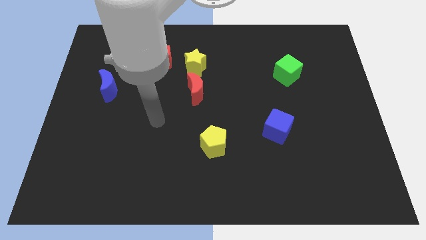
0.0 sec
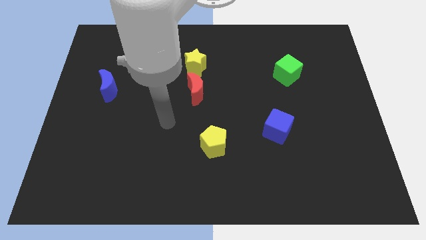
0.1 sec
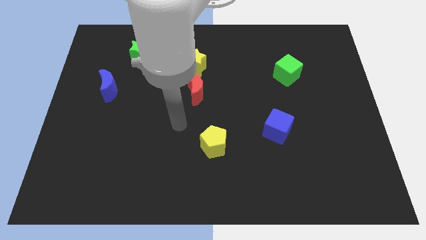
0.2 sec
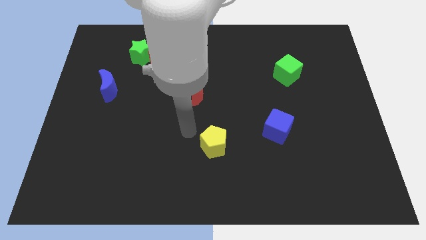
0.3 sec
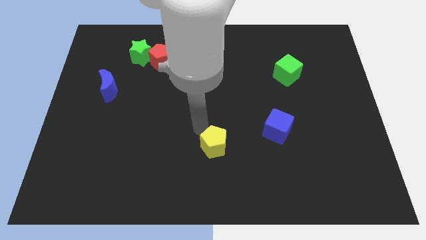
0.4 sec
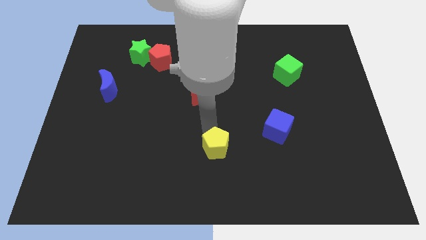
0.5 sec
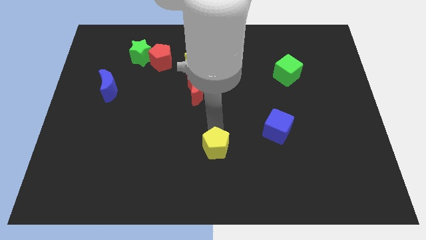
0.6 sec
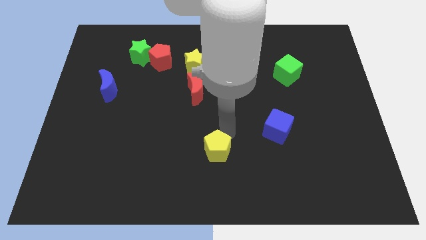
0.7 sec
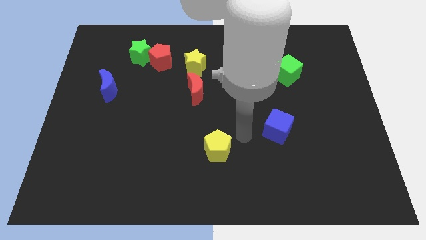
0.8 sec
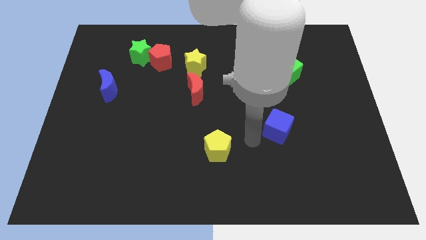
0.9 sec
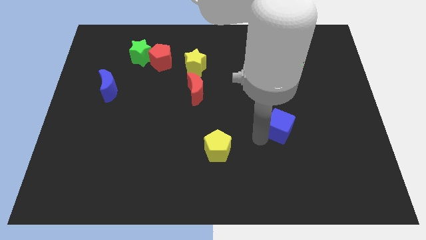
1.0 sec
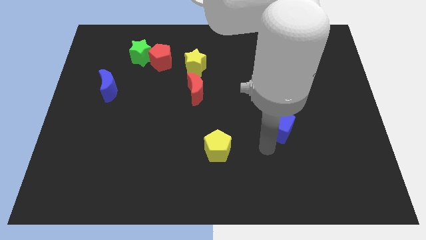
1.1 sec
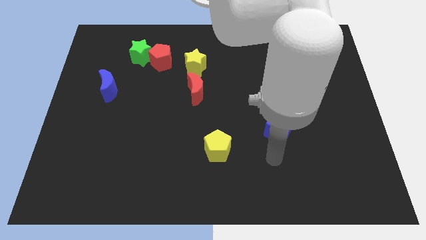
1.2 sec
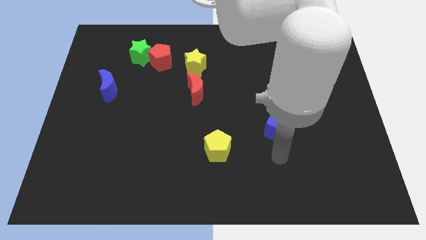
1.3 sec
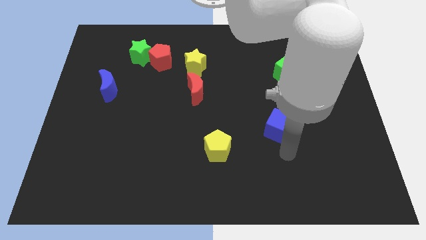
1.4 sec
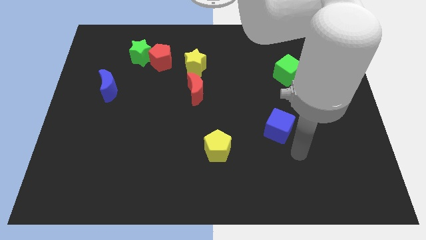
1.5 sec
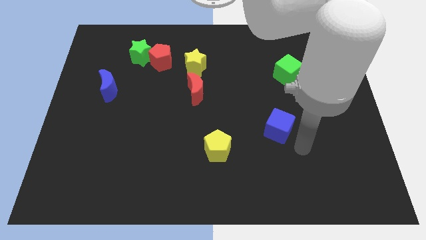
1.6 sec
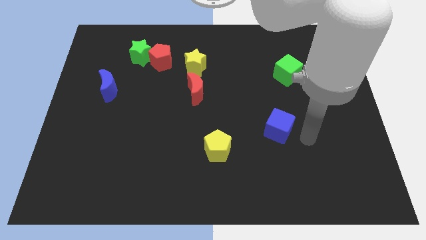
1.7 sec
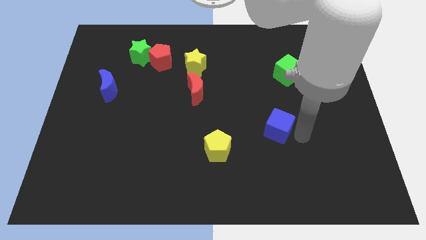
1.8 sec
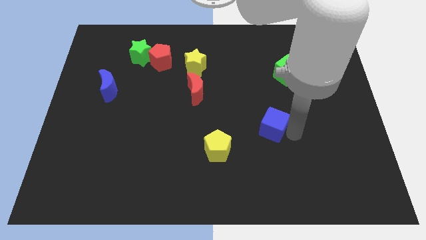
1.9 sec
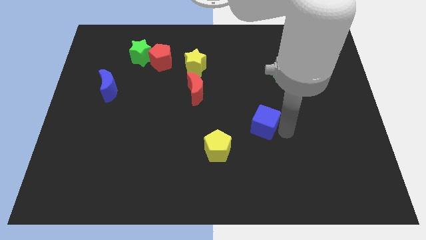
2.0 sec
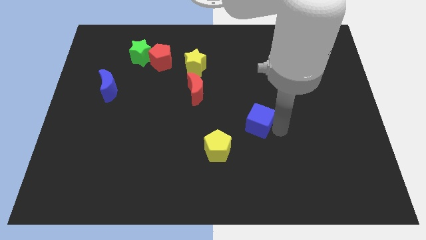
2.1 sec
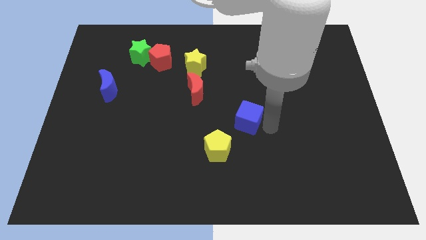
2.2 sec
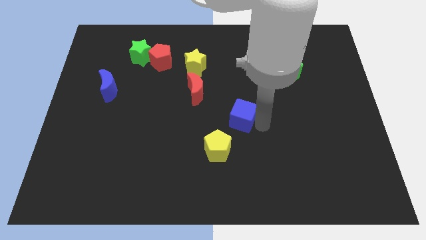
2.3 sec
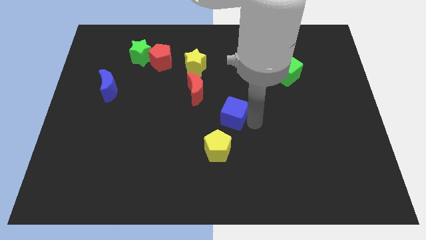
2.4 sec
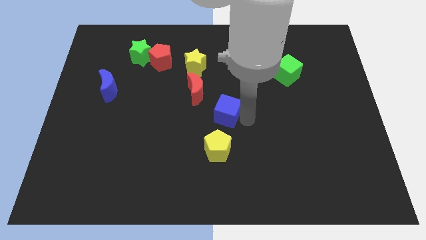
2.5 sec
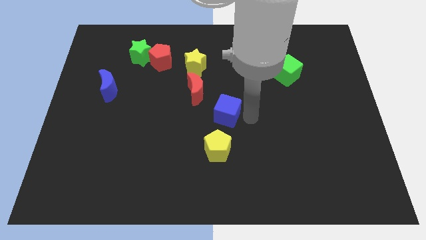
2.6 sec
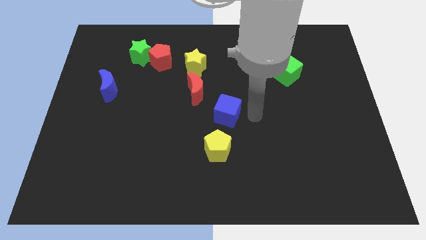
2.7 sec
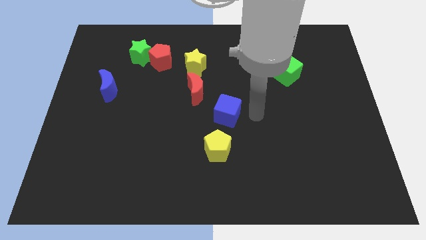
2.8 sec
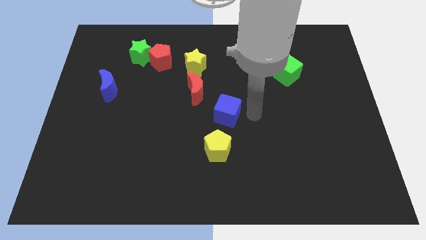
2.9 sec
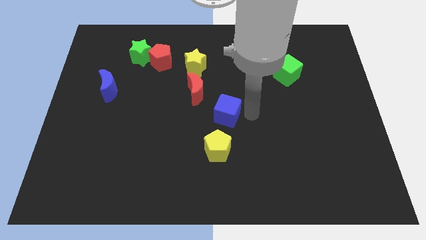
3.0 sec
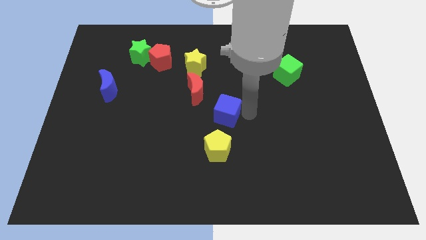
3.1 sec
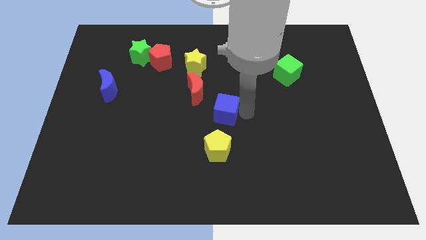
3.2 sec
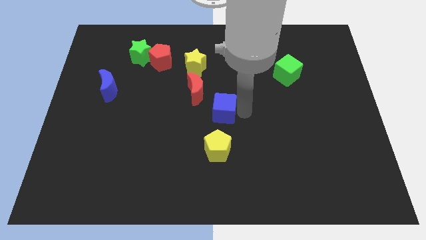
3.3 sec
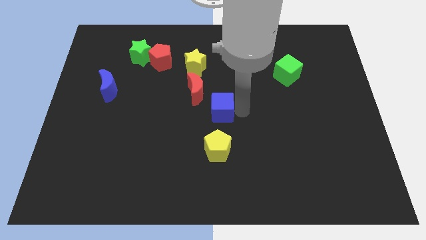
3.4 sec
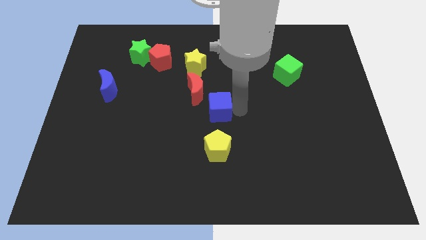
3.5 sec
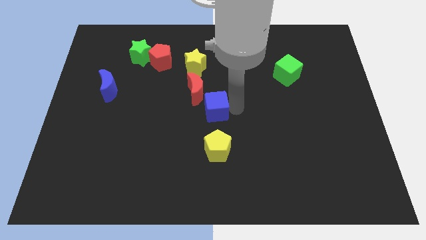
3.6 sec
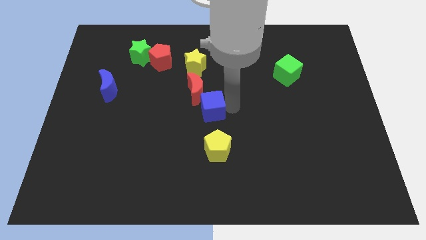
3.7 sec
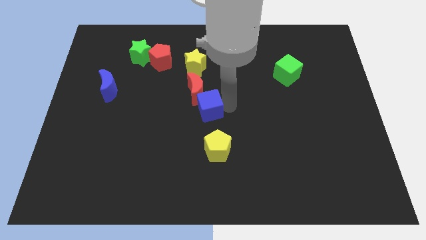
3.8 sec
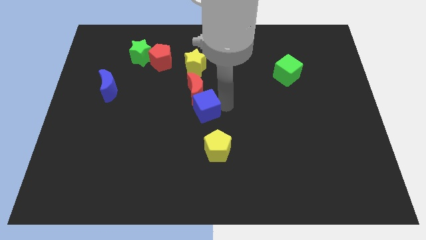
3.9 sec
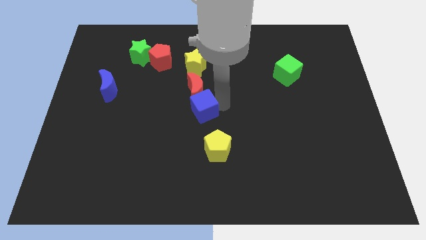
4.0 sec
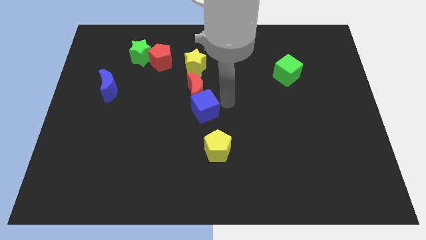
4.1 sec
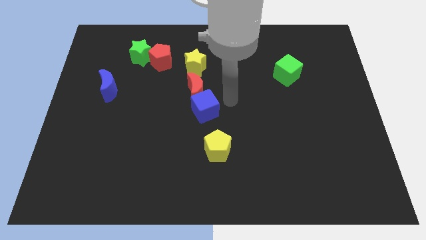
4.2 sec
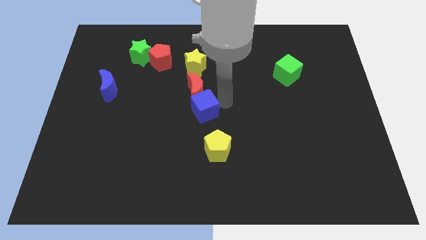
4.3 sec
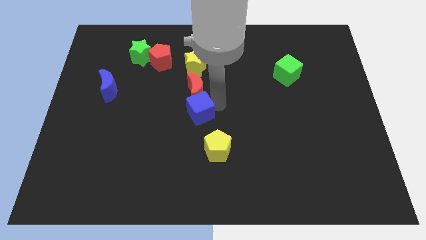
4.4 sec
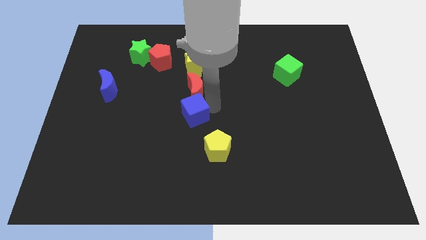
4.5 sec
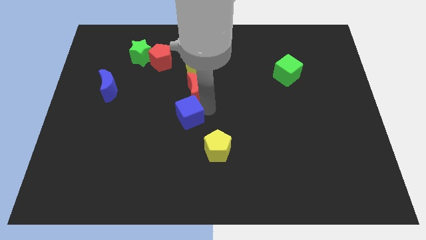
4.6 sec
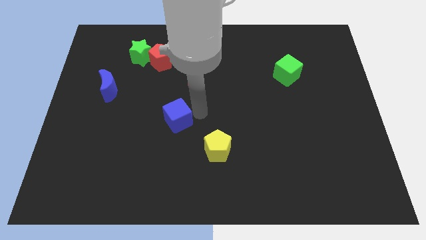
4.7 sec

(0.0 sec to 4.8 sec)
move the blue cube left

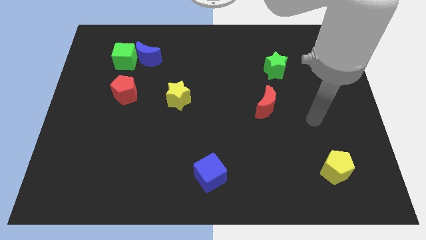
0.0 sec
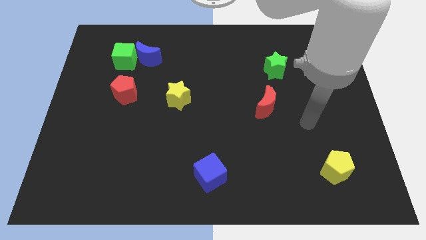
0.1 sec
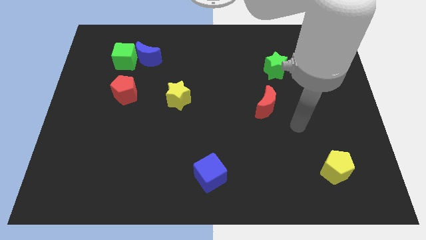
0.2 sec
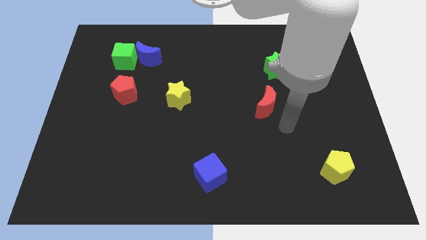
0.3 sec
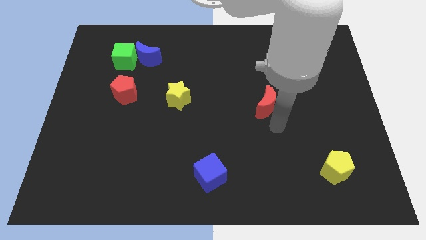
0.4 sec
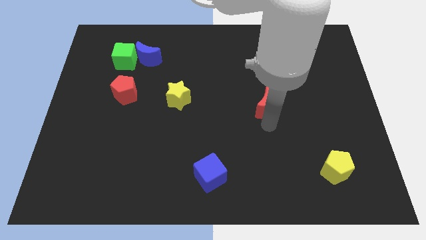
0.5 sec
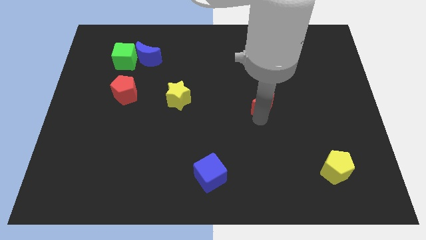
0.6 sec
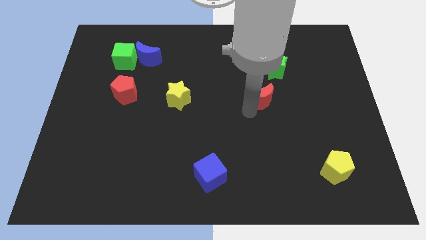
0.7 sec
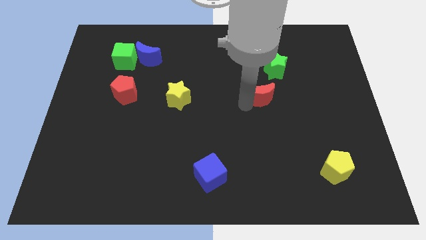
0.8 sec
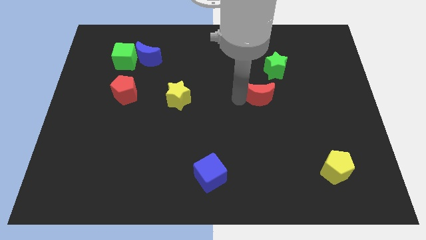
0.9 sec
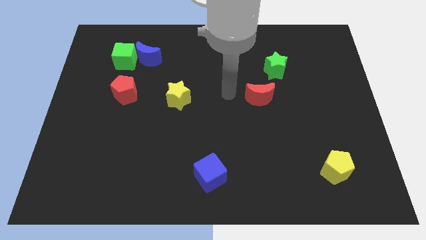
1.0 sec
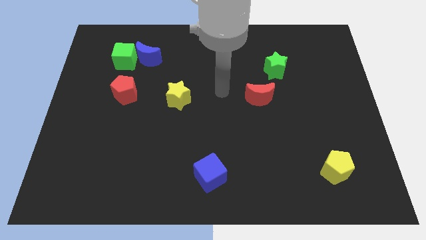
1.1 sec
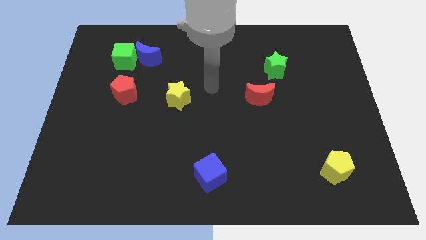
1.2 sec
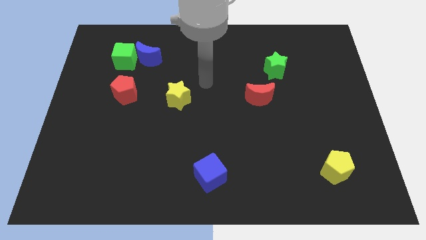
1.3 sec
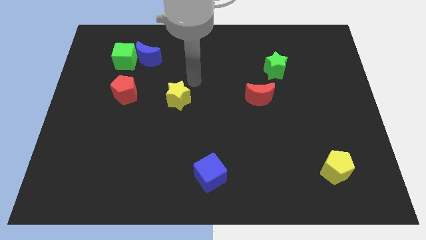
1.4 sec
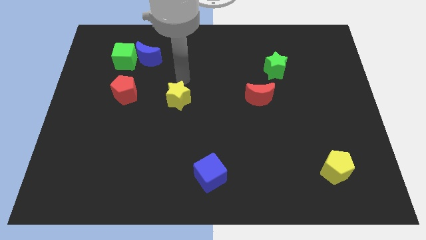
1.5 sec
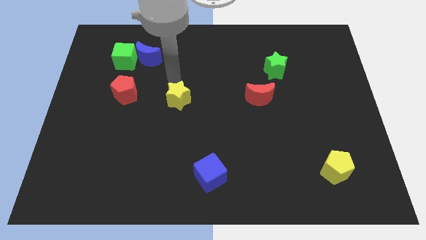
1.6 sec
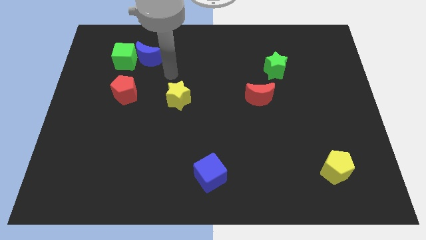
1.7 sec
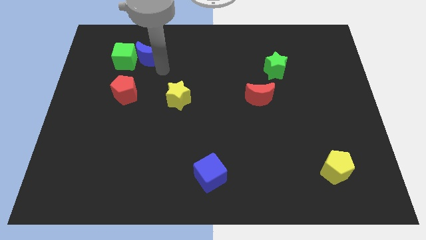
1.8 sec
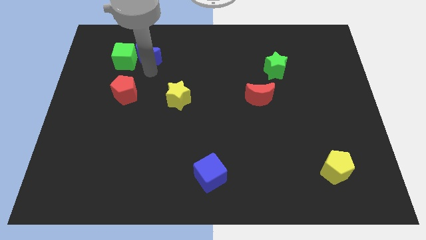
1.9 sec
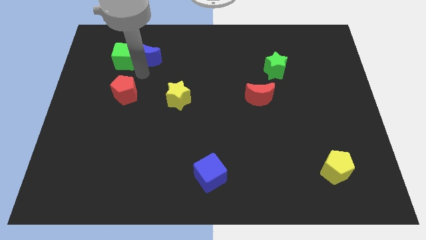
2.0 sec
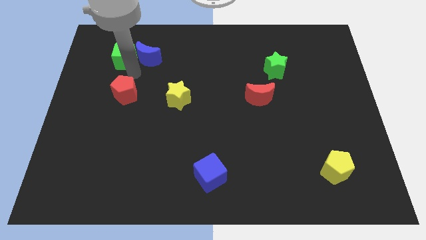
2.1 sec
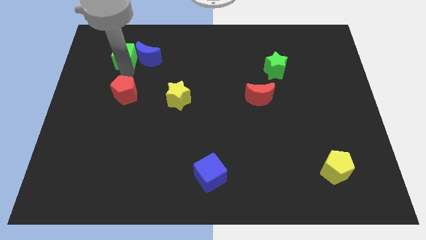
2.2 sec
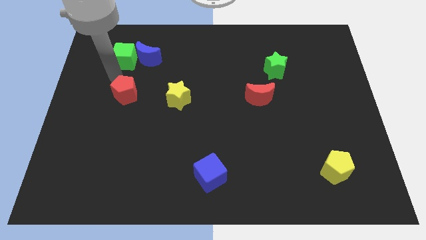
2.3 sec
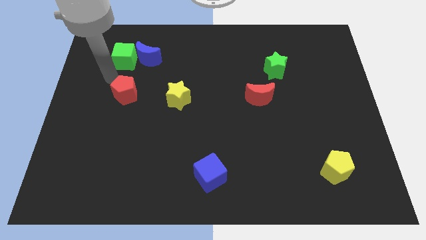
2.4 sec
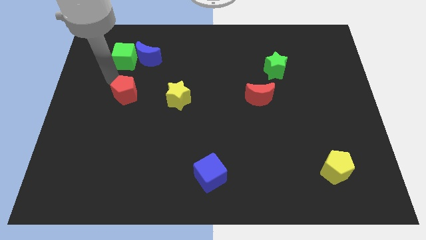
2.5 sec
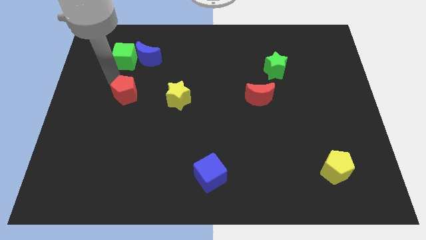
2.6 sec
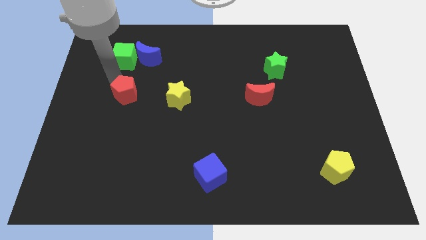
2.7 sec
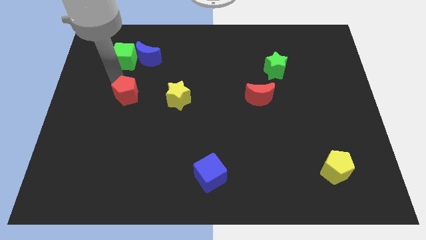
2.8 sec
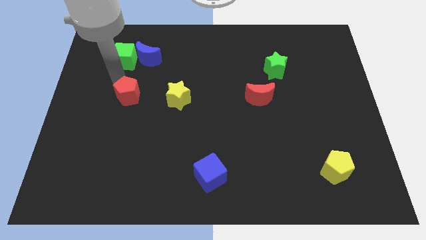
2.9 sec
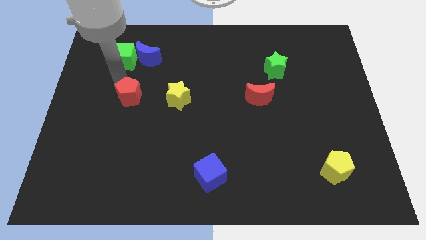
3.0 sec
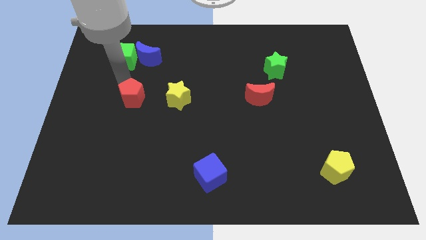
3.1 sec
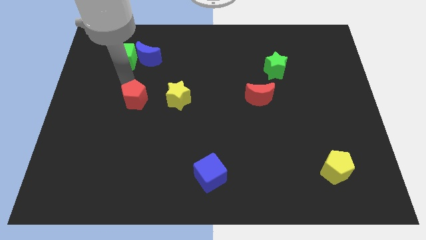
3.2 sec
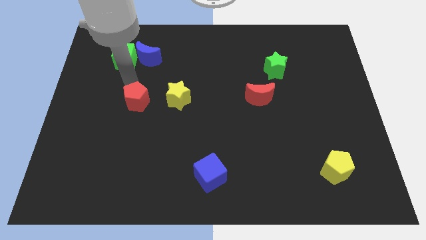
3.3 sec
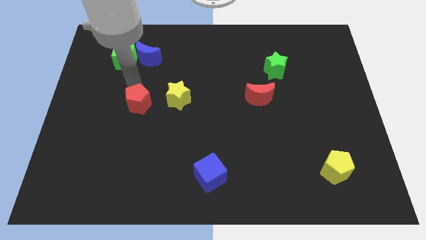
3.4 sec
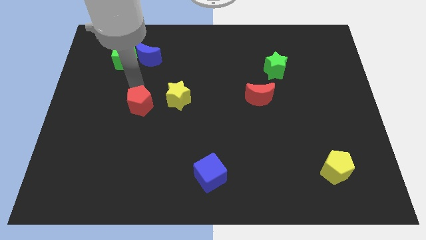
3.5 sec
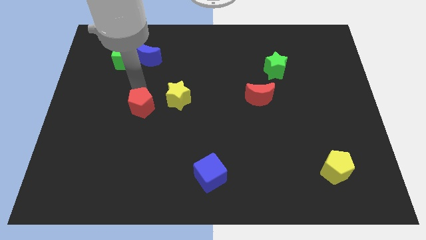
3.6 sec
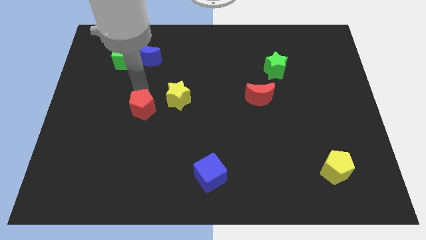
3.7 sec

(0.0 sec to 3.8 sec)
move the red pentagon somewhat down and then to the right
